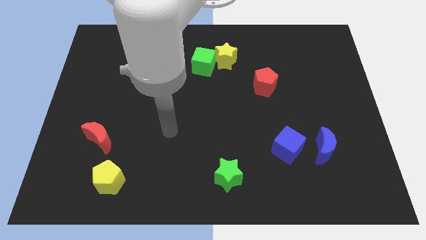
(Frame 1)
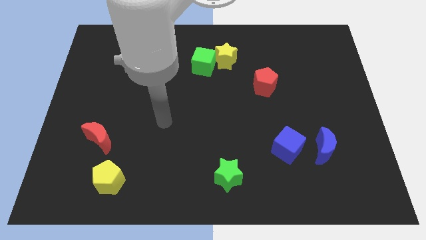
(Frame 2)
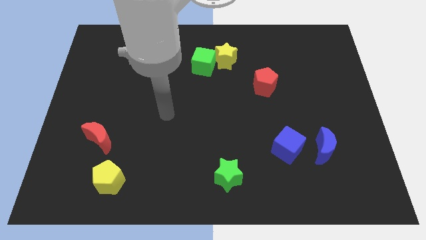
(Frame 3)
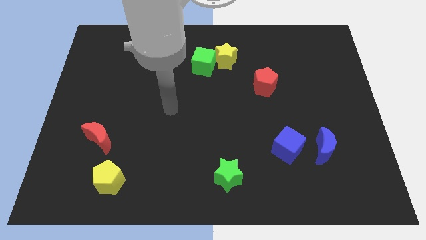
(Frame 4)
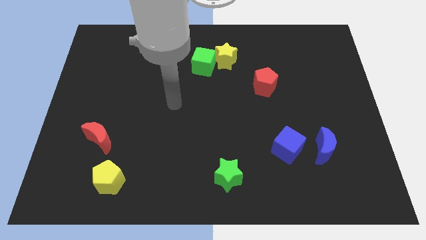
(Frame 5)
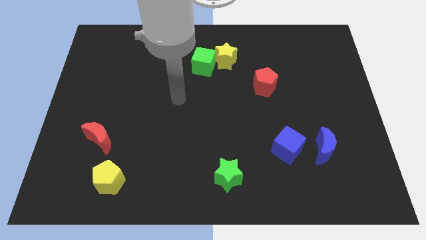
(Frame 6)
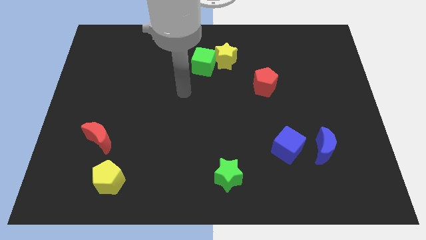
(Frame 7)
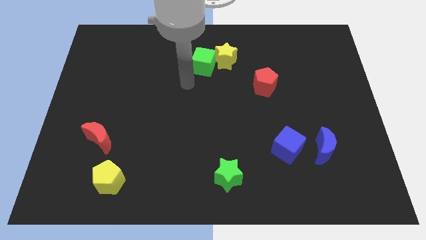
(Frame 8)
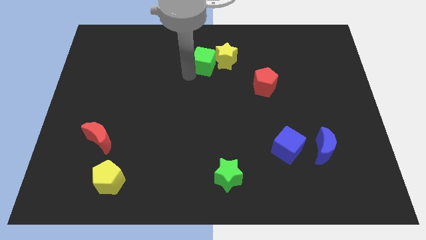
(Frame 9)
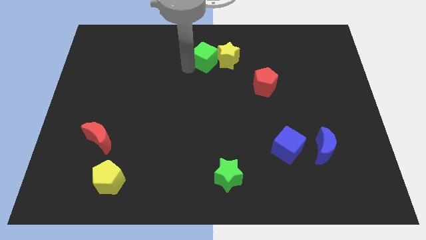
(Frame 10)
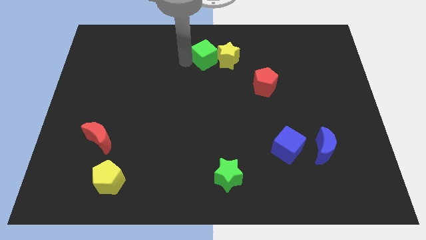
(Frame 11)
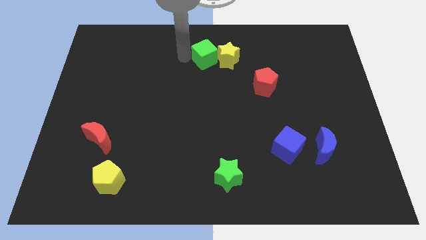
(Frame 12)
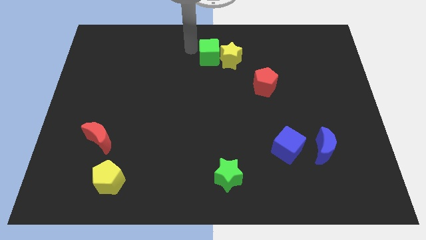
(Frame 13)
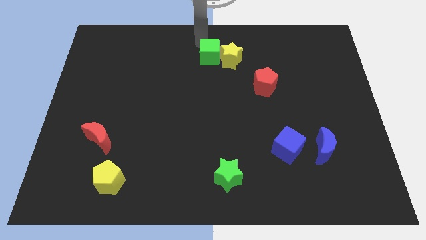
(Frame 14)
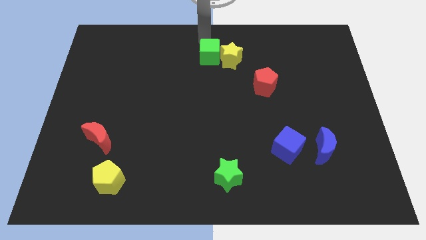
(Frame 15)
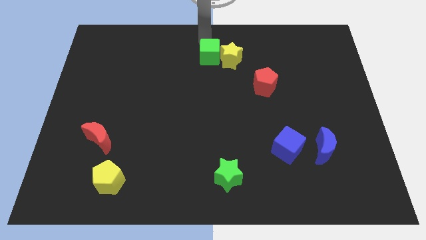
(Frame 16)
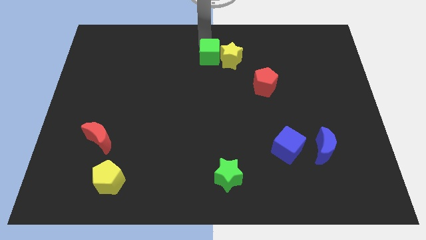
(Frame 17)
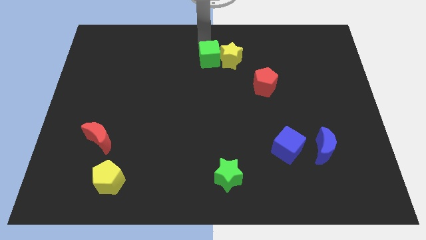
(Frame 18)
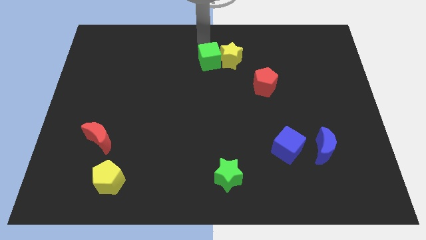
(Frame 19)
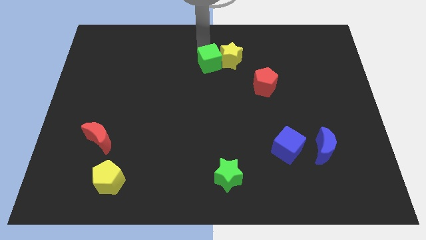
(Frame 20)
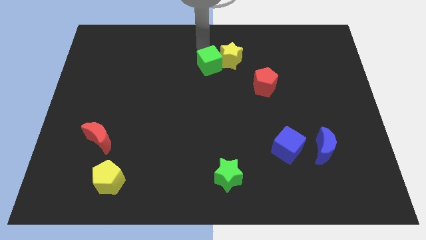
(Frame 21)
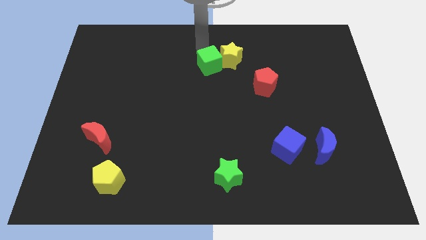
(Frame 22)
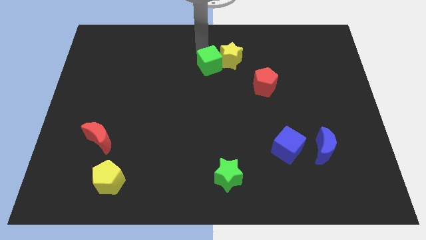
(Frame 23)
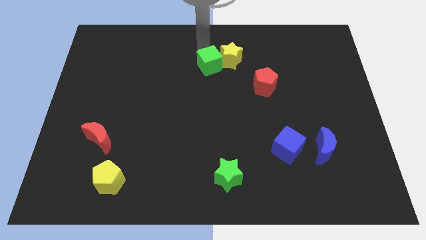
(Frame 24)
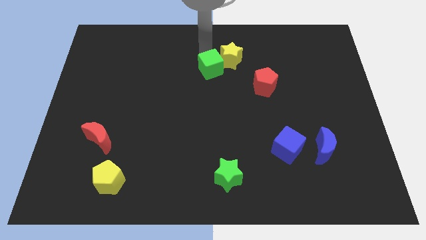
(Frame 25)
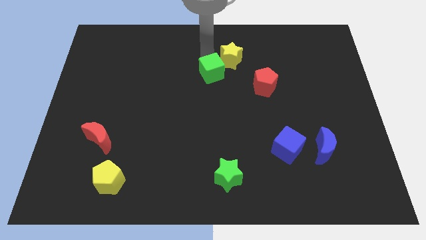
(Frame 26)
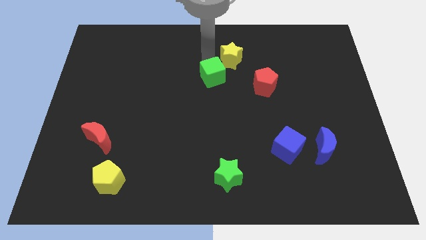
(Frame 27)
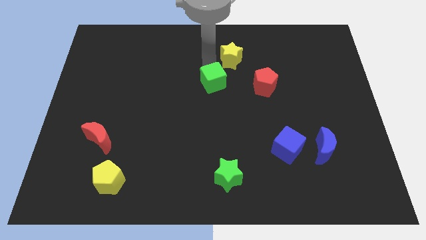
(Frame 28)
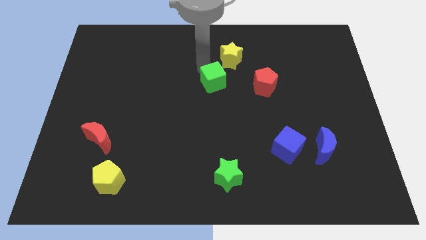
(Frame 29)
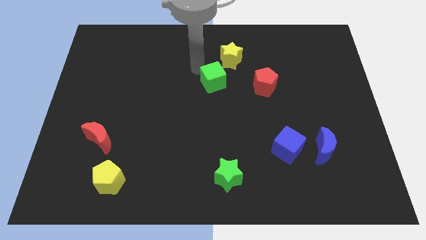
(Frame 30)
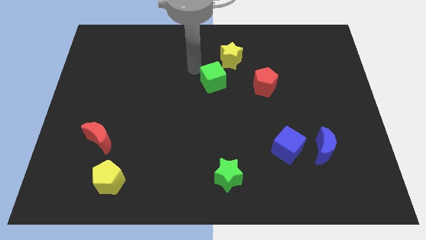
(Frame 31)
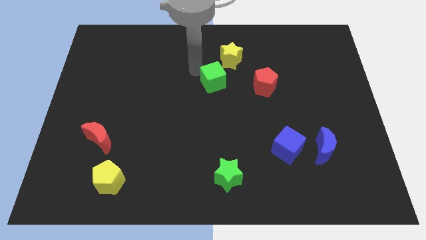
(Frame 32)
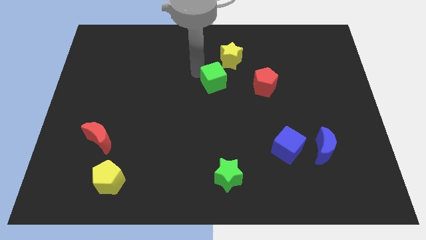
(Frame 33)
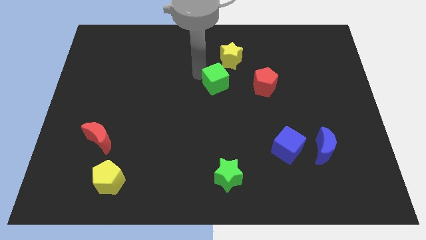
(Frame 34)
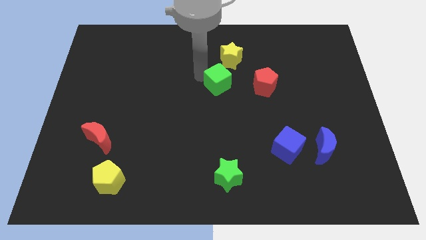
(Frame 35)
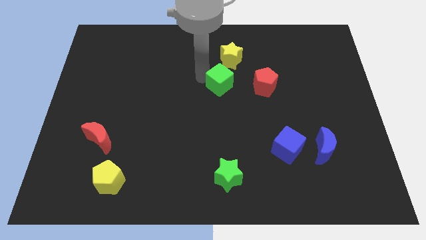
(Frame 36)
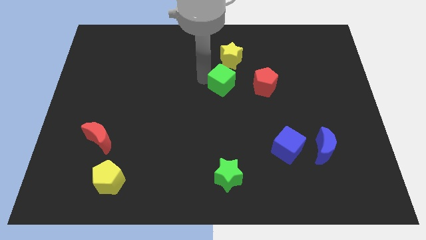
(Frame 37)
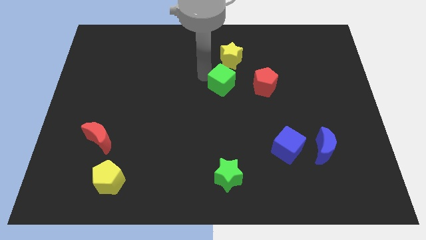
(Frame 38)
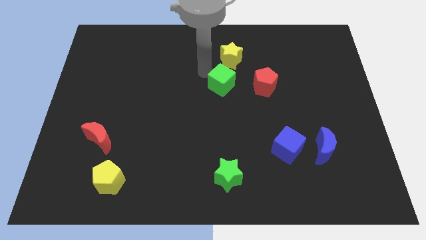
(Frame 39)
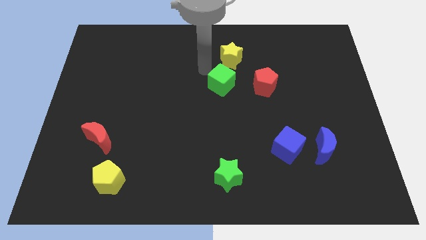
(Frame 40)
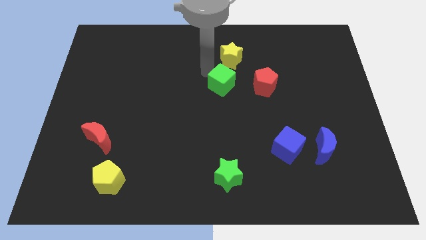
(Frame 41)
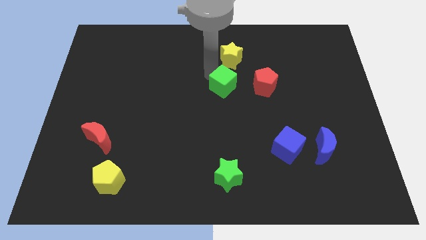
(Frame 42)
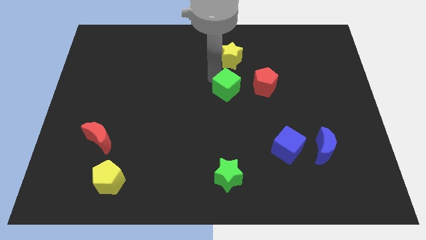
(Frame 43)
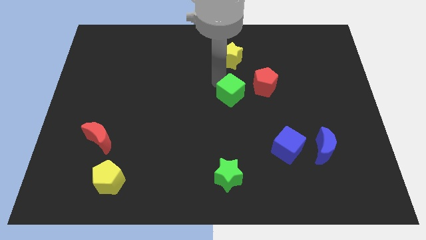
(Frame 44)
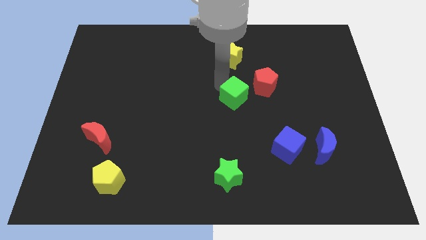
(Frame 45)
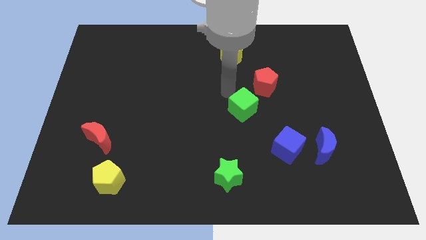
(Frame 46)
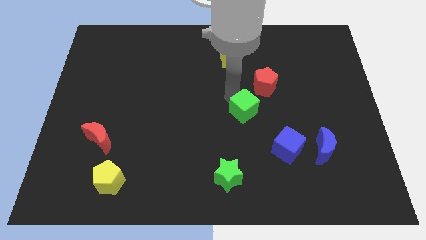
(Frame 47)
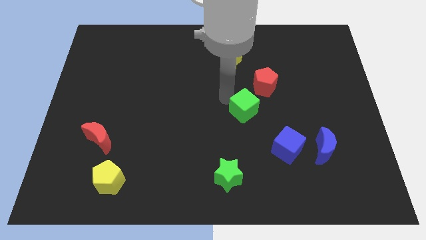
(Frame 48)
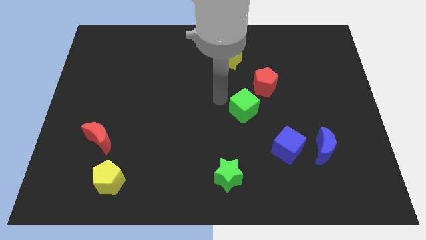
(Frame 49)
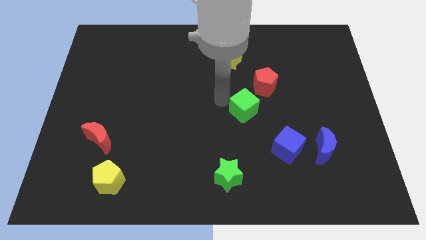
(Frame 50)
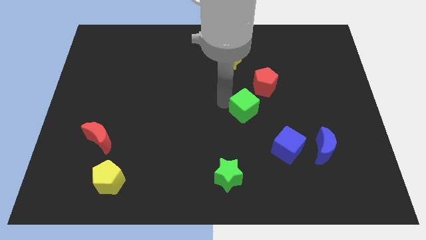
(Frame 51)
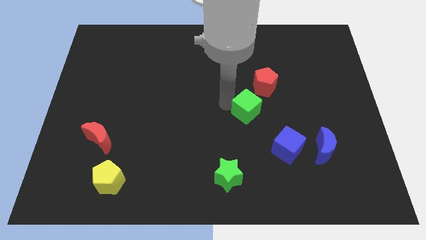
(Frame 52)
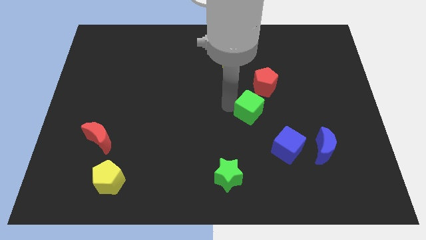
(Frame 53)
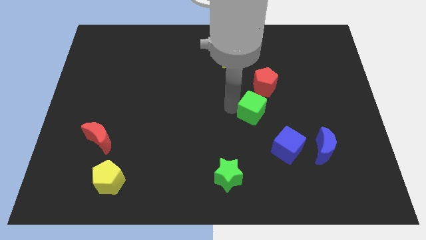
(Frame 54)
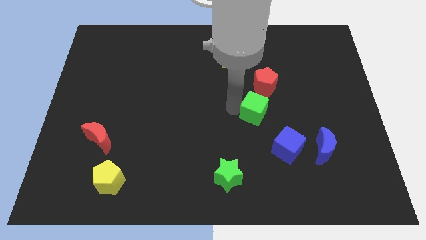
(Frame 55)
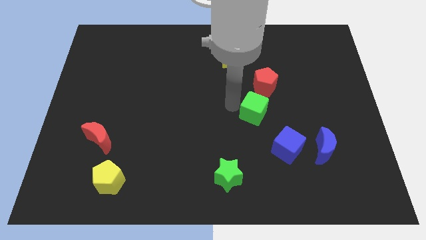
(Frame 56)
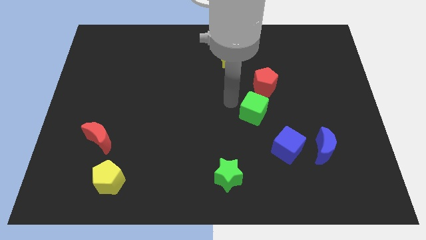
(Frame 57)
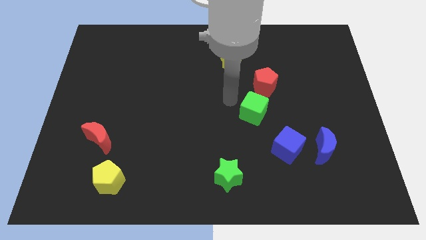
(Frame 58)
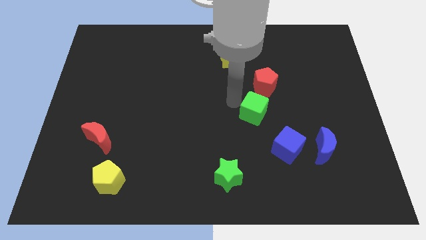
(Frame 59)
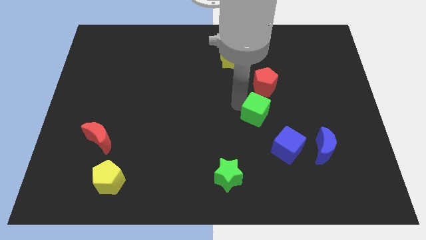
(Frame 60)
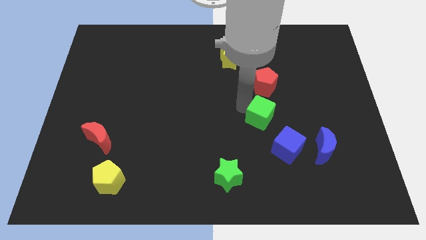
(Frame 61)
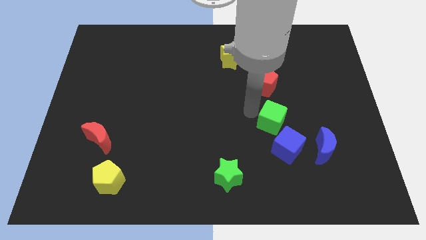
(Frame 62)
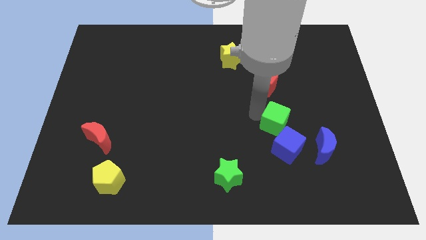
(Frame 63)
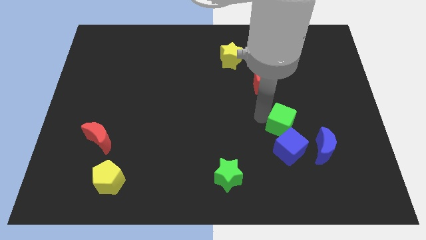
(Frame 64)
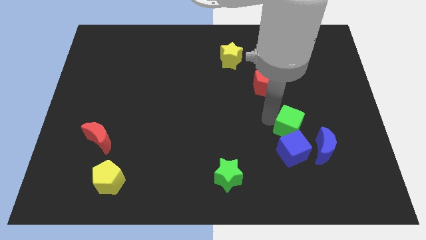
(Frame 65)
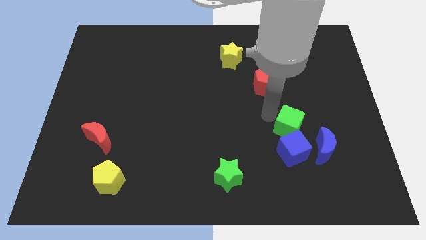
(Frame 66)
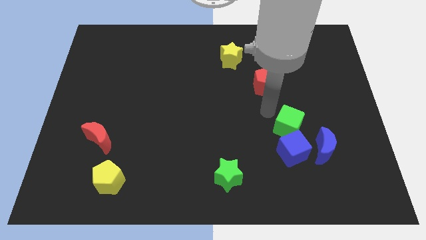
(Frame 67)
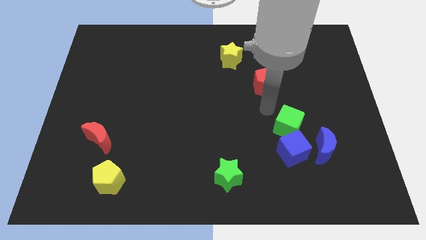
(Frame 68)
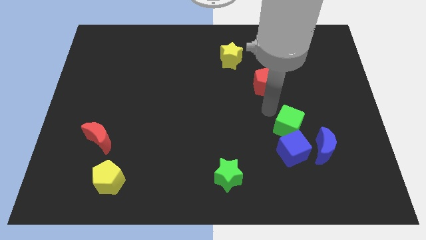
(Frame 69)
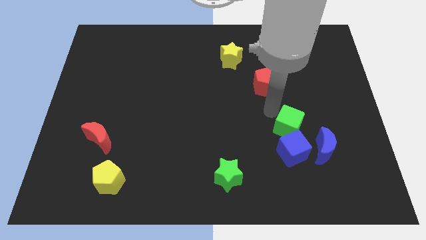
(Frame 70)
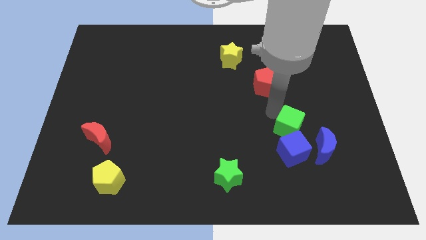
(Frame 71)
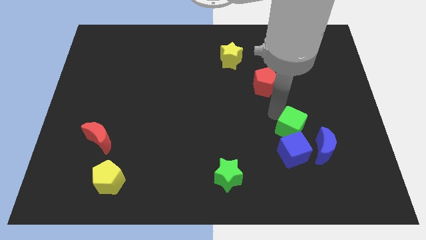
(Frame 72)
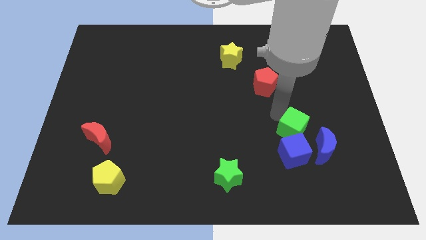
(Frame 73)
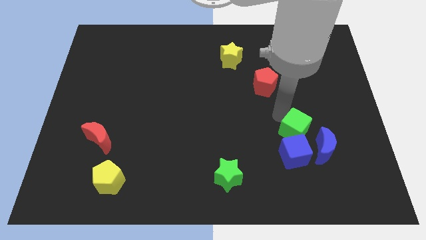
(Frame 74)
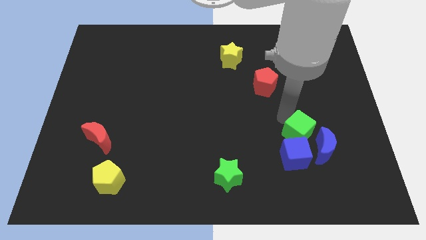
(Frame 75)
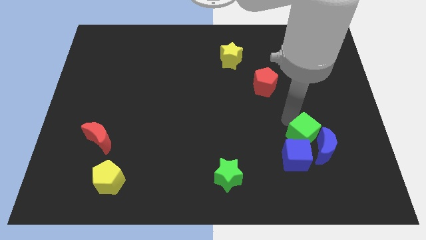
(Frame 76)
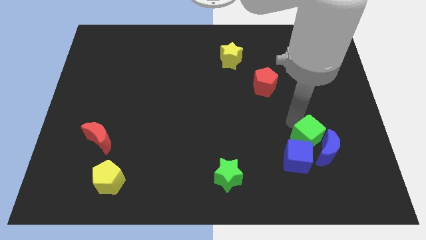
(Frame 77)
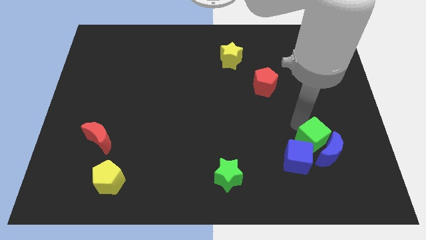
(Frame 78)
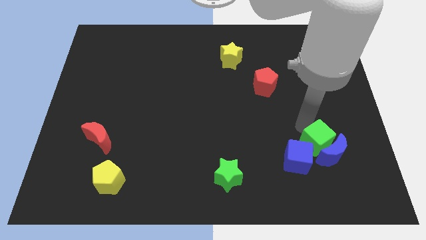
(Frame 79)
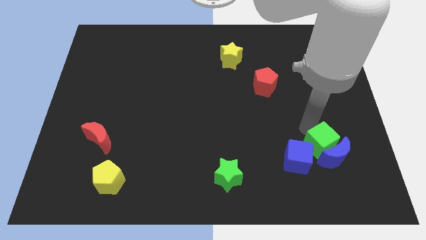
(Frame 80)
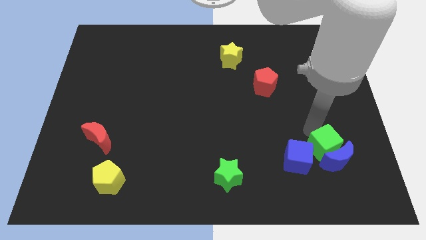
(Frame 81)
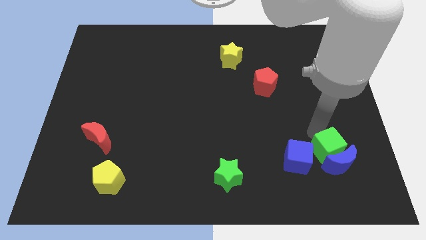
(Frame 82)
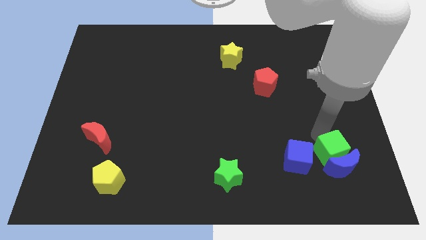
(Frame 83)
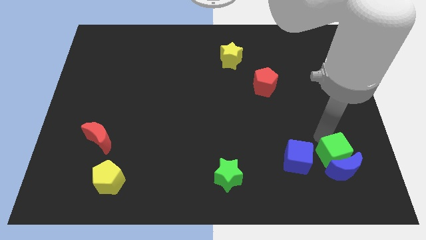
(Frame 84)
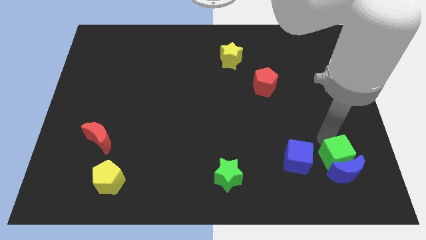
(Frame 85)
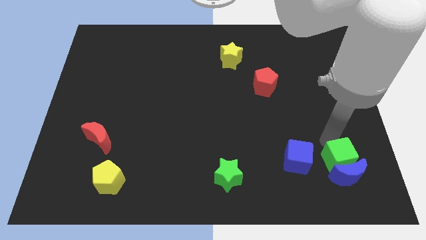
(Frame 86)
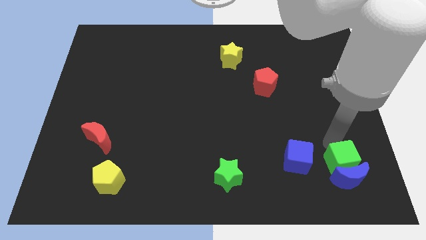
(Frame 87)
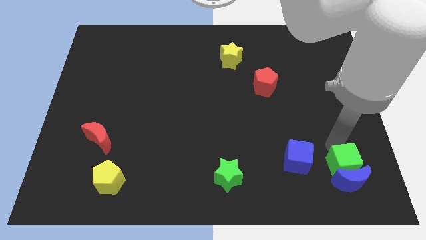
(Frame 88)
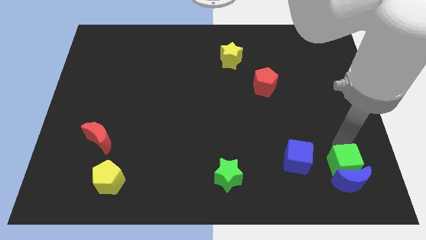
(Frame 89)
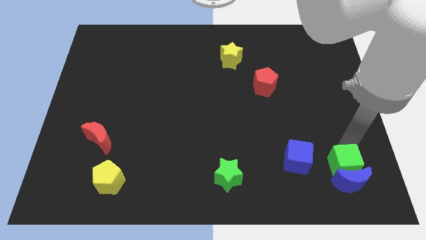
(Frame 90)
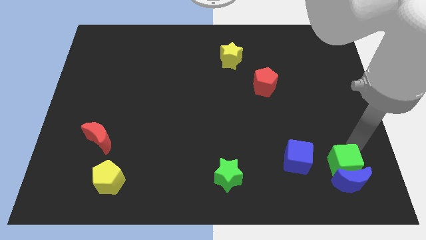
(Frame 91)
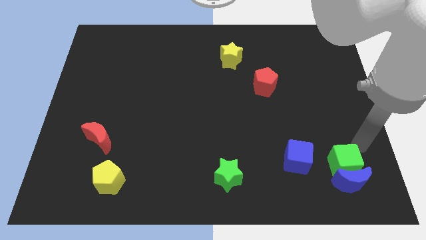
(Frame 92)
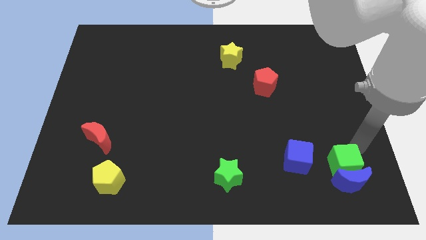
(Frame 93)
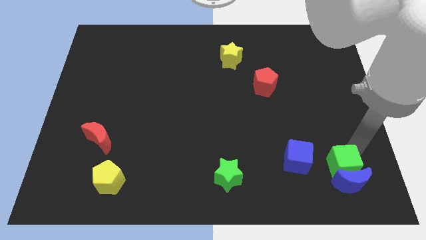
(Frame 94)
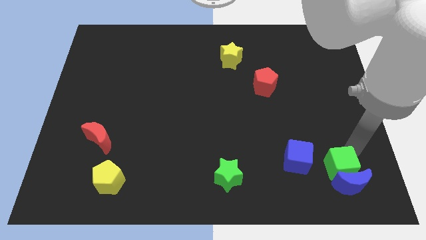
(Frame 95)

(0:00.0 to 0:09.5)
put the green cube to the bottom right side of the blue cube
